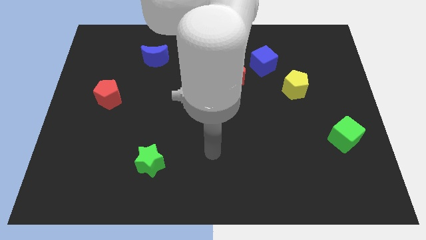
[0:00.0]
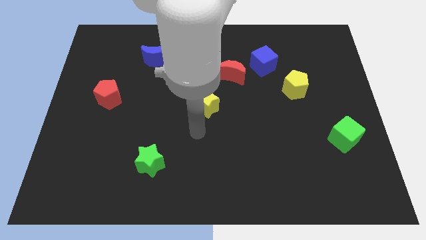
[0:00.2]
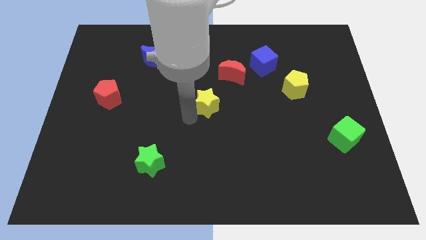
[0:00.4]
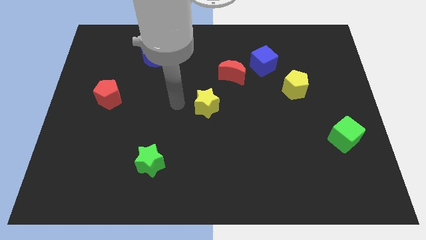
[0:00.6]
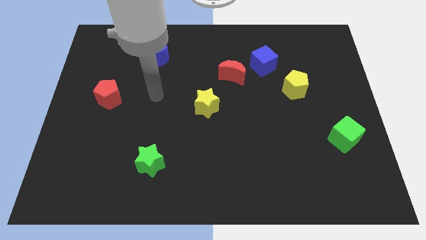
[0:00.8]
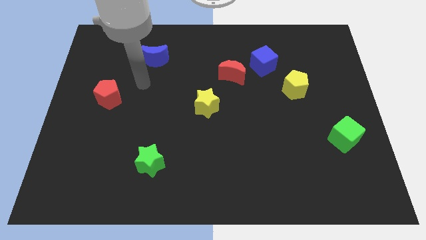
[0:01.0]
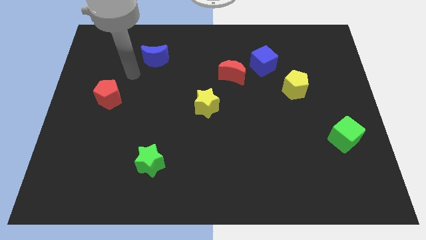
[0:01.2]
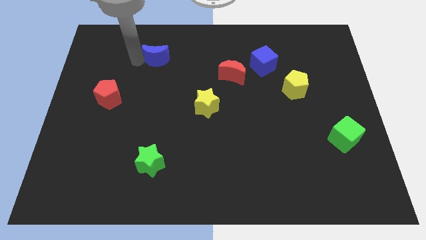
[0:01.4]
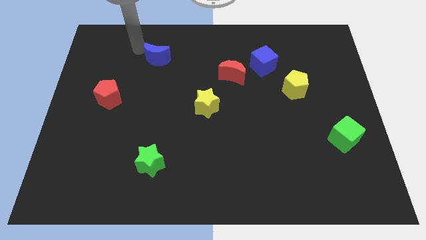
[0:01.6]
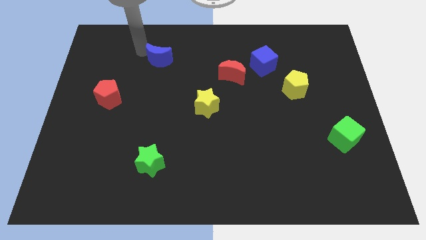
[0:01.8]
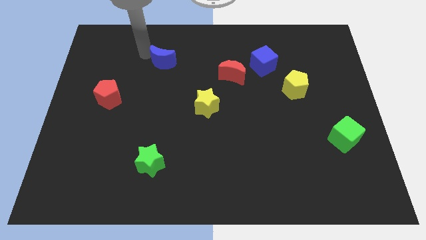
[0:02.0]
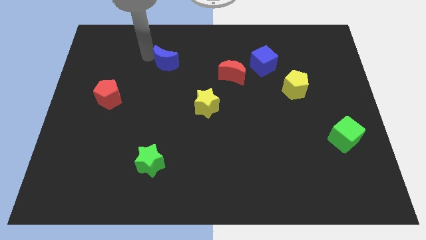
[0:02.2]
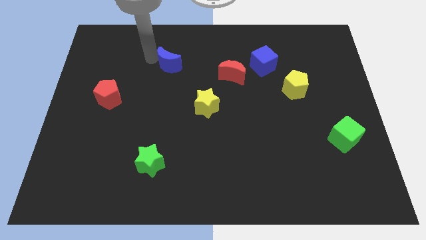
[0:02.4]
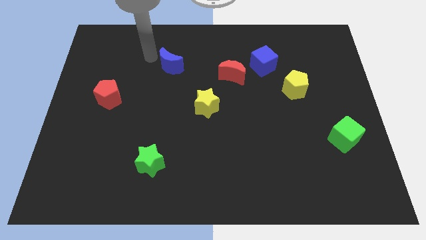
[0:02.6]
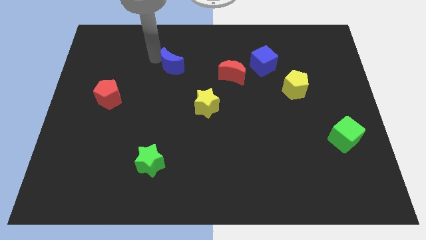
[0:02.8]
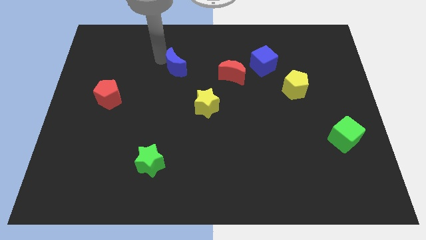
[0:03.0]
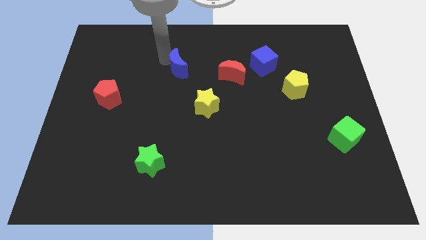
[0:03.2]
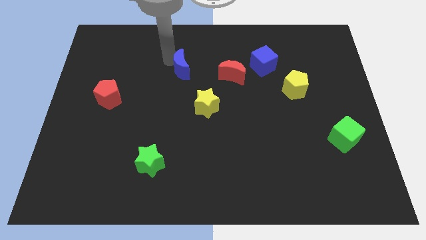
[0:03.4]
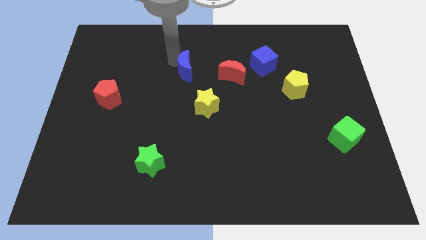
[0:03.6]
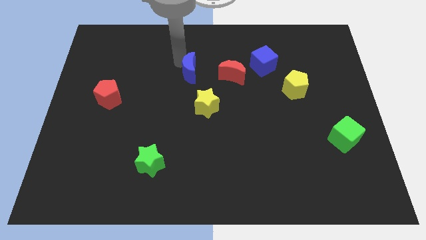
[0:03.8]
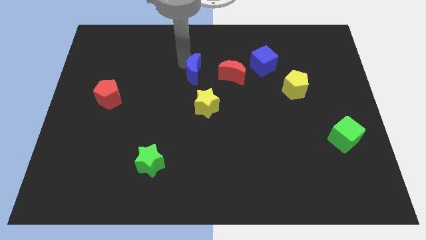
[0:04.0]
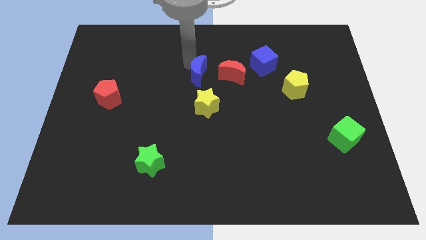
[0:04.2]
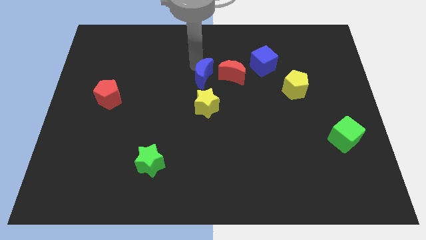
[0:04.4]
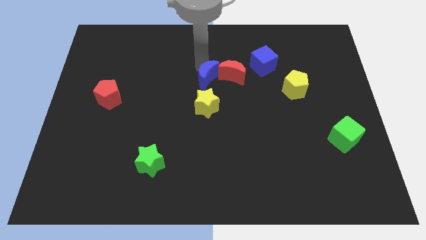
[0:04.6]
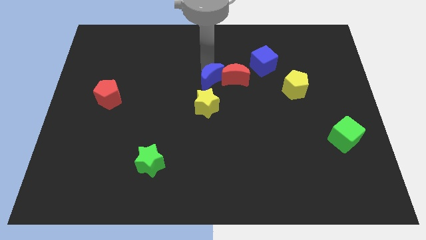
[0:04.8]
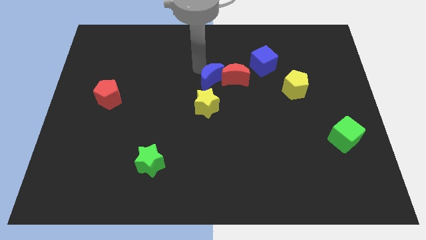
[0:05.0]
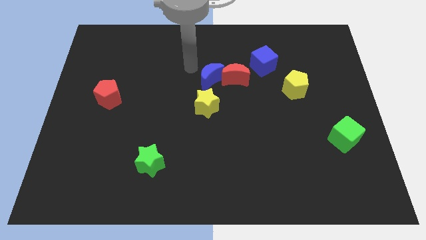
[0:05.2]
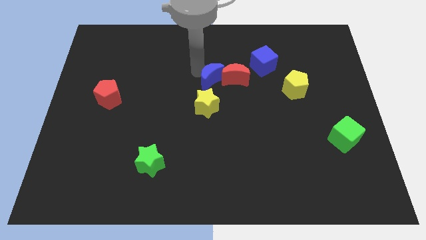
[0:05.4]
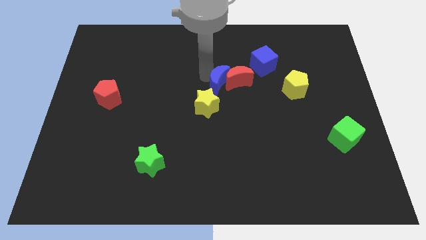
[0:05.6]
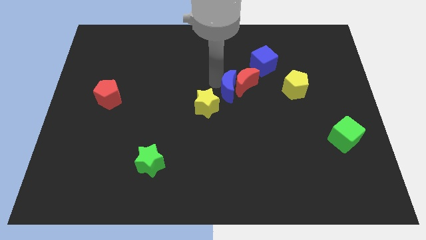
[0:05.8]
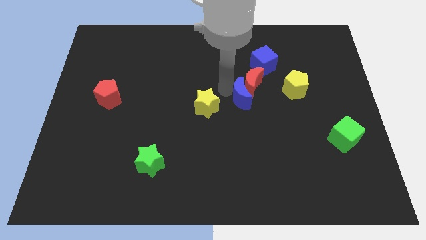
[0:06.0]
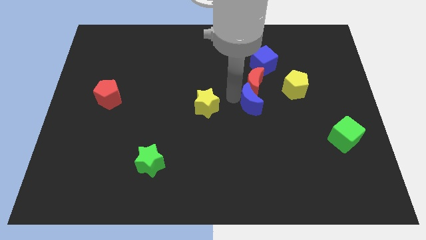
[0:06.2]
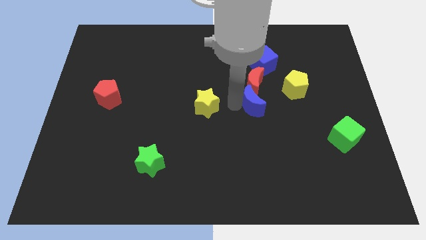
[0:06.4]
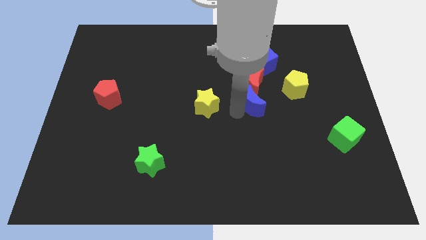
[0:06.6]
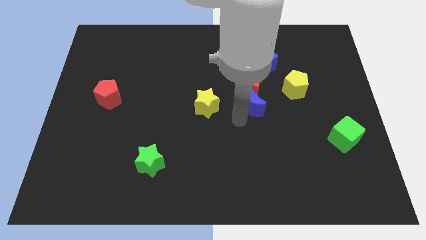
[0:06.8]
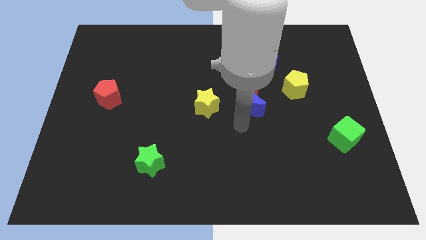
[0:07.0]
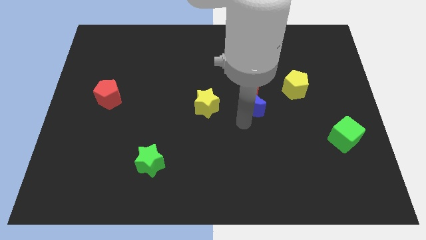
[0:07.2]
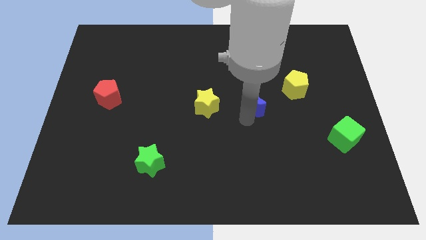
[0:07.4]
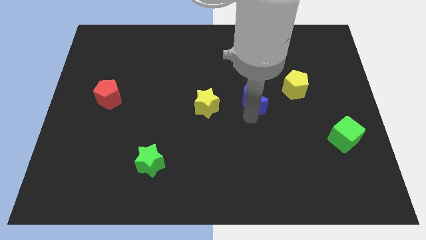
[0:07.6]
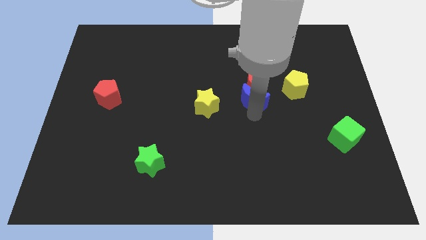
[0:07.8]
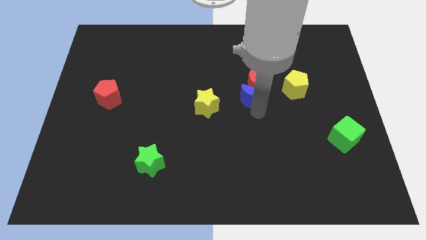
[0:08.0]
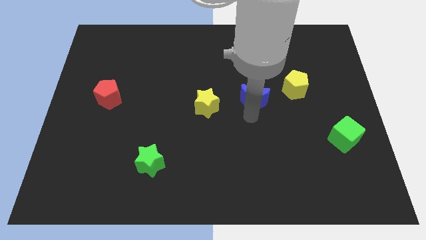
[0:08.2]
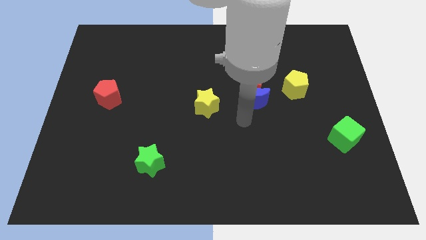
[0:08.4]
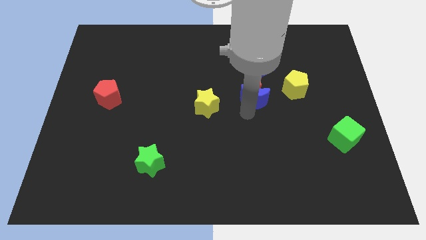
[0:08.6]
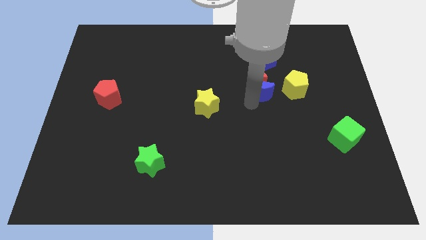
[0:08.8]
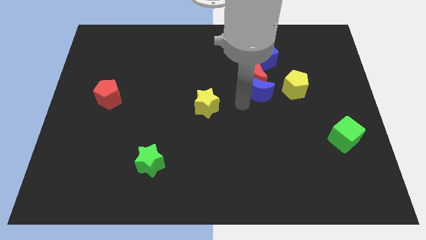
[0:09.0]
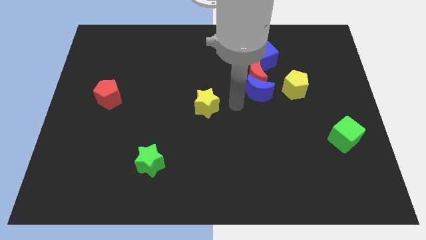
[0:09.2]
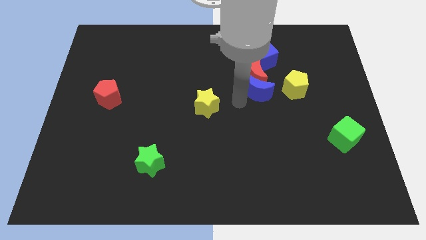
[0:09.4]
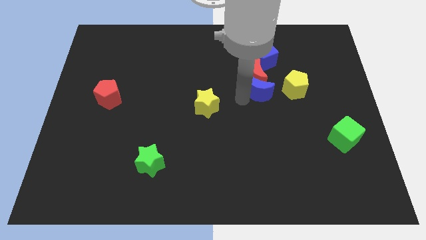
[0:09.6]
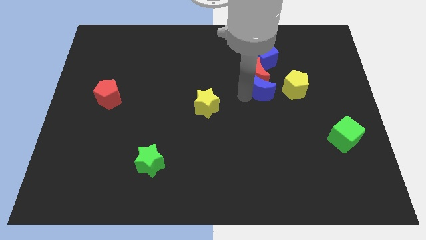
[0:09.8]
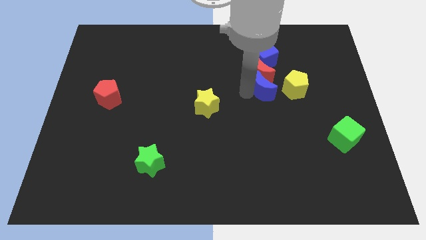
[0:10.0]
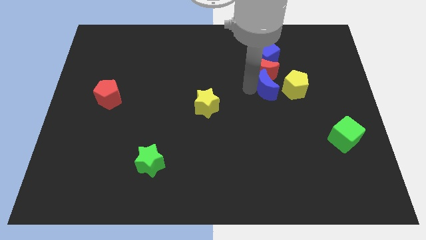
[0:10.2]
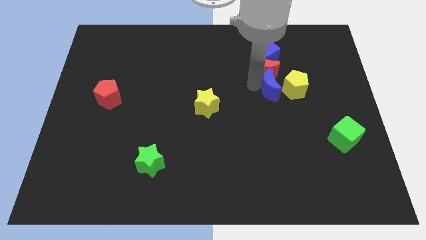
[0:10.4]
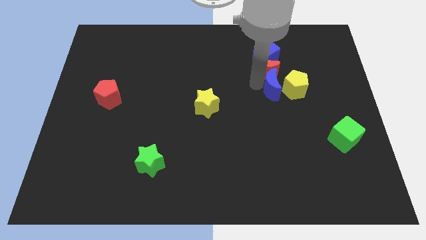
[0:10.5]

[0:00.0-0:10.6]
push the blue moon close to the yellow pentagon

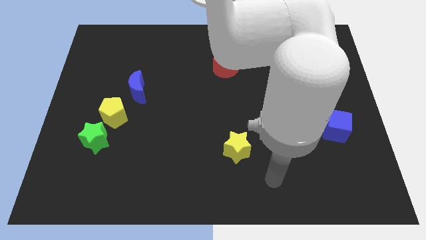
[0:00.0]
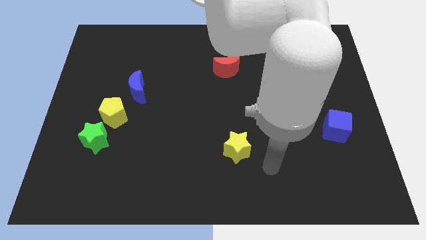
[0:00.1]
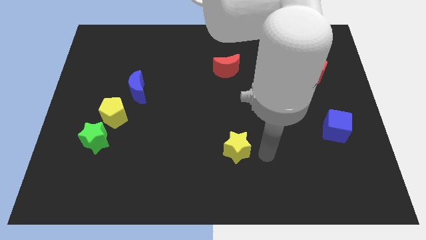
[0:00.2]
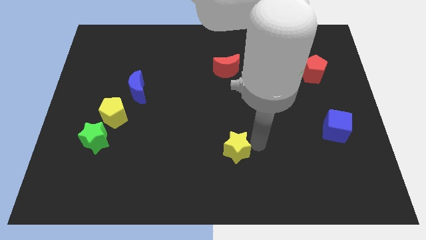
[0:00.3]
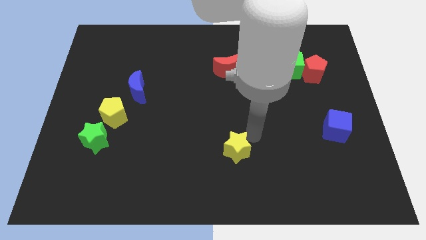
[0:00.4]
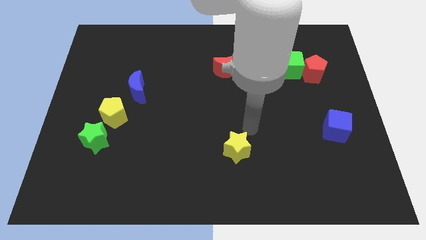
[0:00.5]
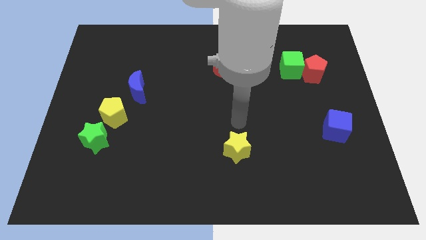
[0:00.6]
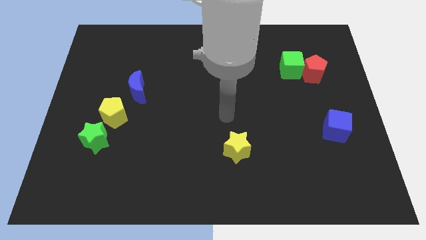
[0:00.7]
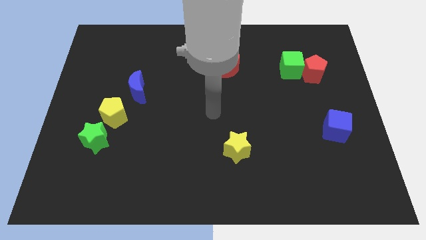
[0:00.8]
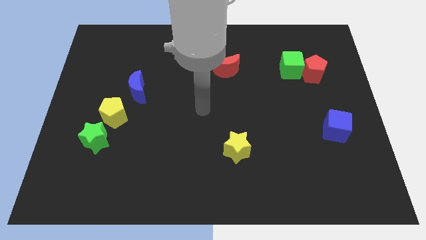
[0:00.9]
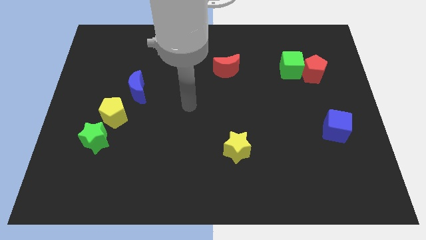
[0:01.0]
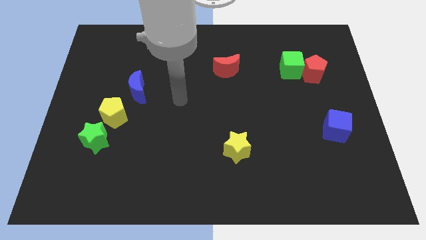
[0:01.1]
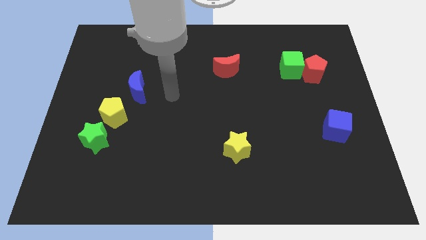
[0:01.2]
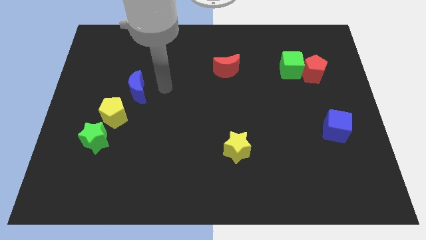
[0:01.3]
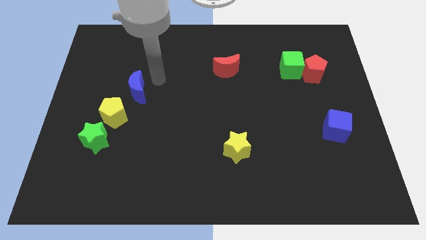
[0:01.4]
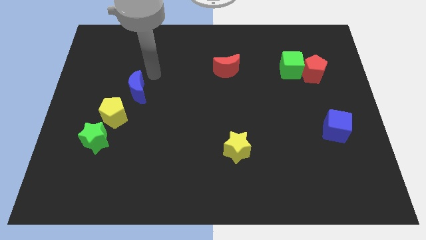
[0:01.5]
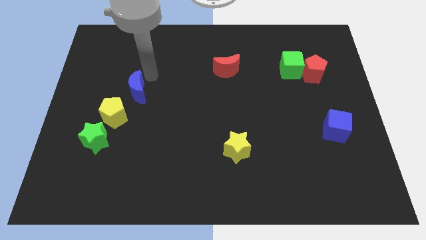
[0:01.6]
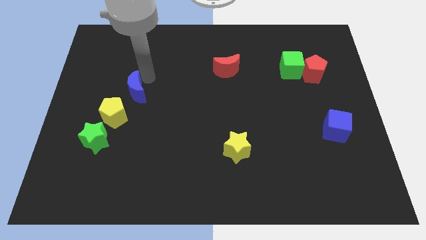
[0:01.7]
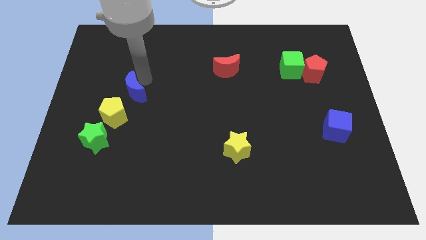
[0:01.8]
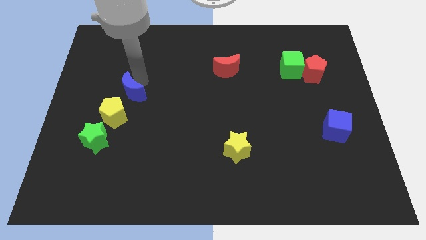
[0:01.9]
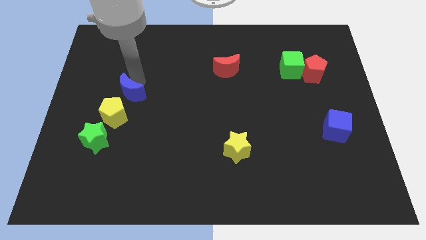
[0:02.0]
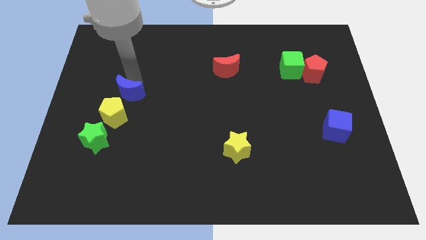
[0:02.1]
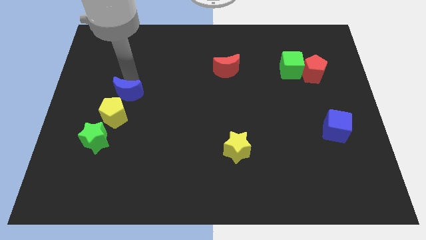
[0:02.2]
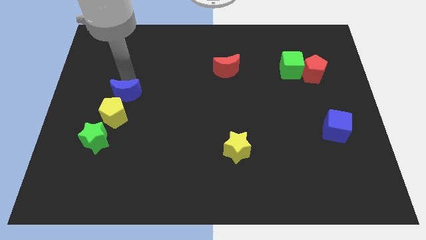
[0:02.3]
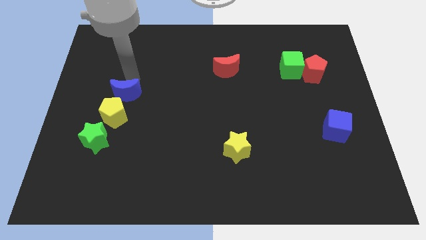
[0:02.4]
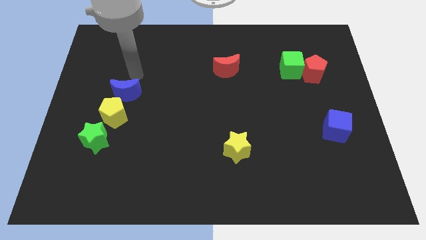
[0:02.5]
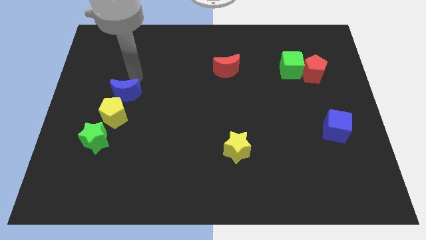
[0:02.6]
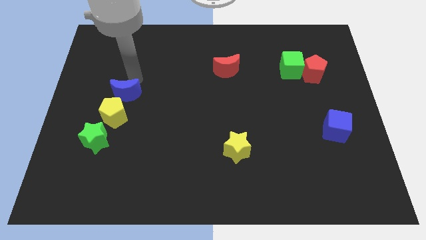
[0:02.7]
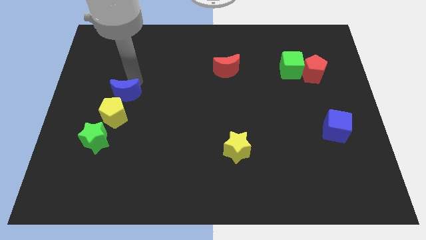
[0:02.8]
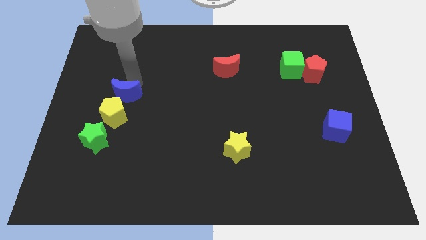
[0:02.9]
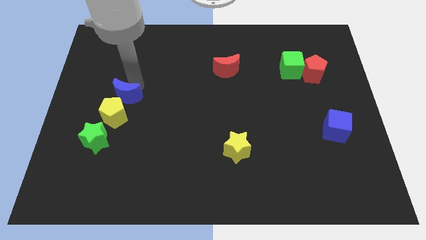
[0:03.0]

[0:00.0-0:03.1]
slide the blue moon close to the yellow pentagon
